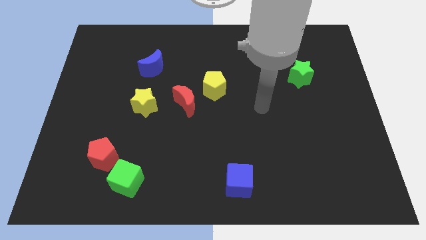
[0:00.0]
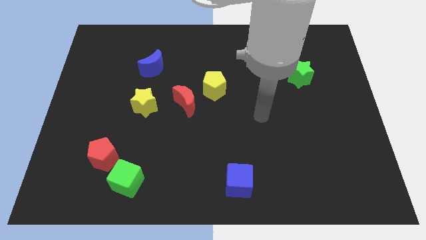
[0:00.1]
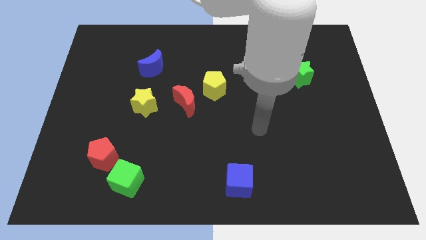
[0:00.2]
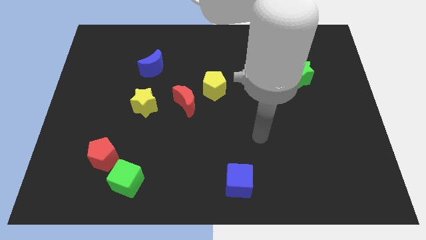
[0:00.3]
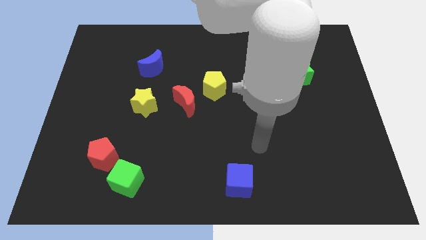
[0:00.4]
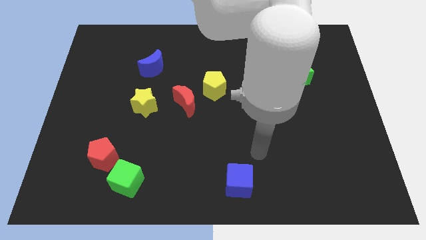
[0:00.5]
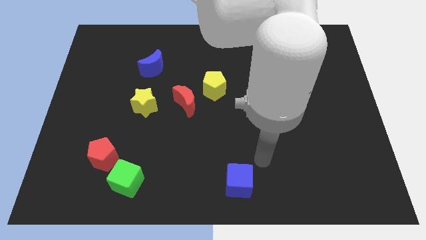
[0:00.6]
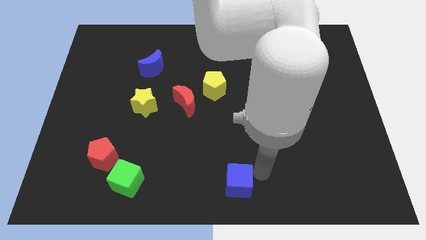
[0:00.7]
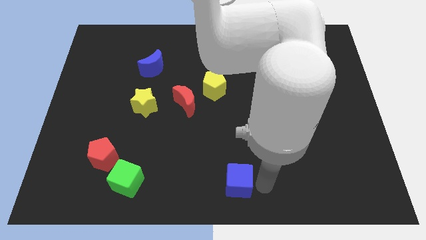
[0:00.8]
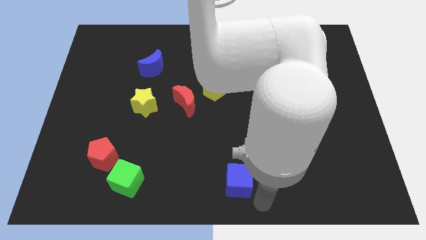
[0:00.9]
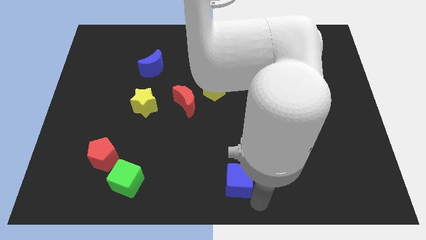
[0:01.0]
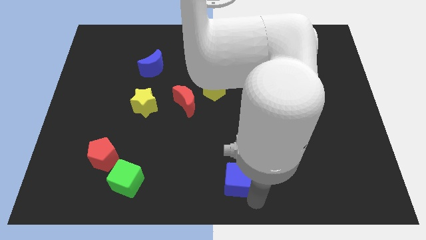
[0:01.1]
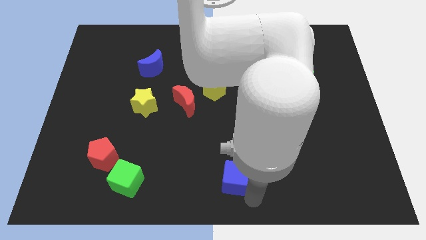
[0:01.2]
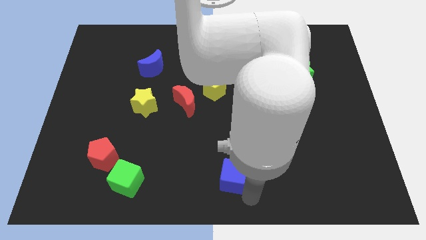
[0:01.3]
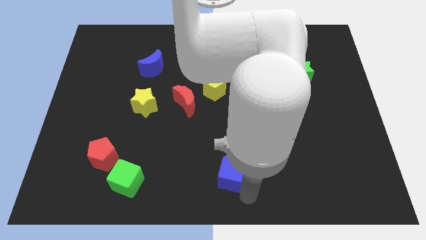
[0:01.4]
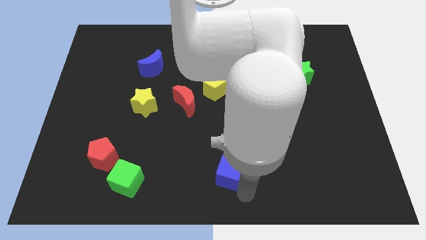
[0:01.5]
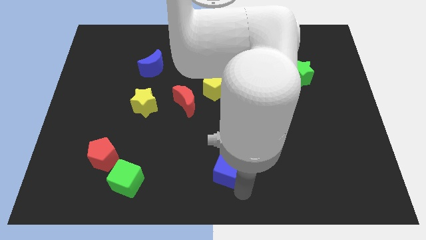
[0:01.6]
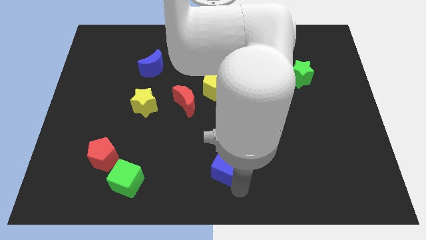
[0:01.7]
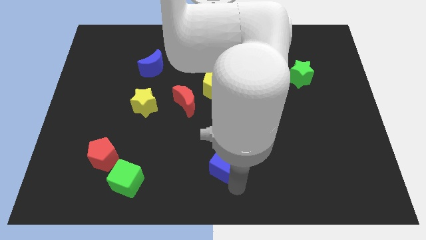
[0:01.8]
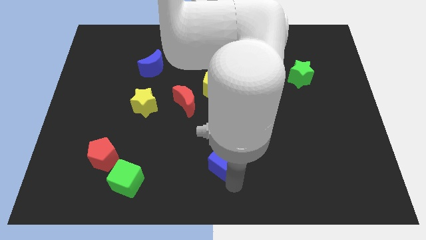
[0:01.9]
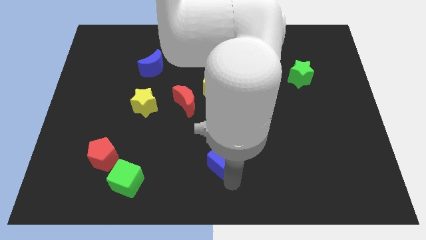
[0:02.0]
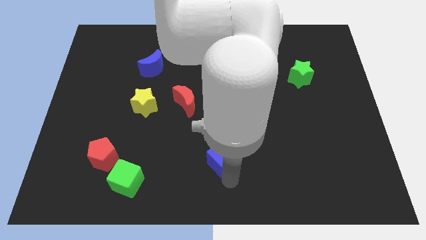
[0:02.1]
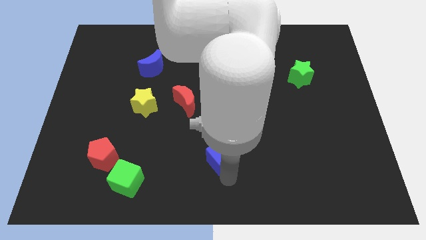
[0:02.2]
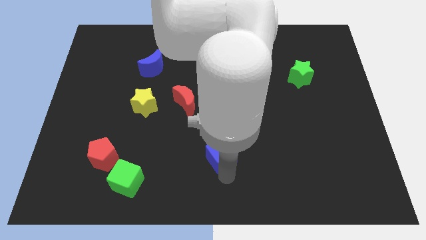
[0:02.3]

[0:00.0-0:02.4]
slightly move the blue cube upwards and to the left diagonally

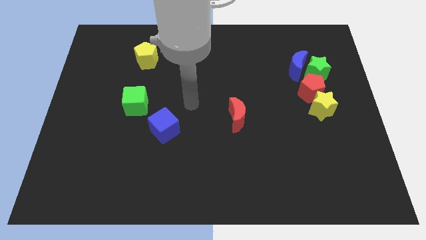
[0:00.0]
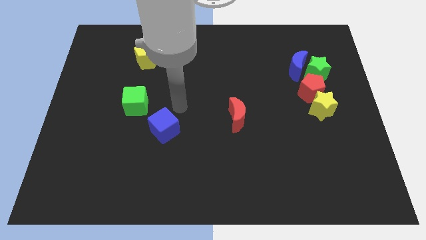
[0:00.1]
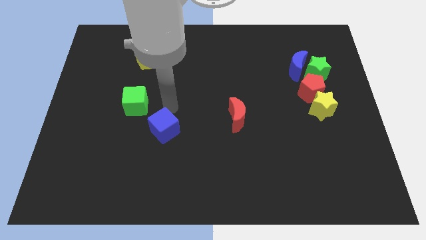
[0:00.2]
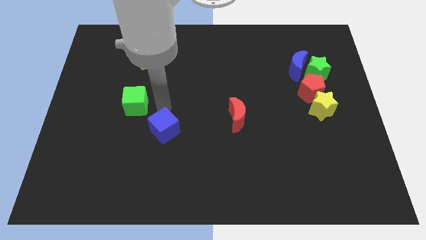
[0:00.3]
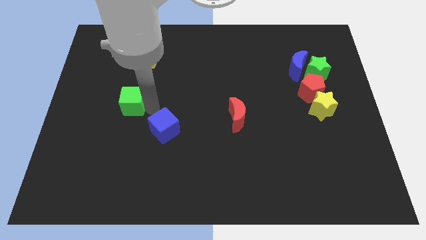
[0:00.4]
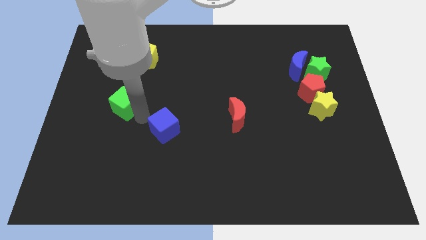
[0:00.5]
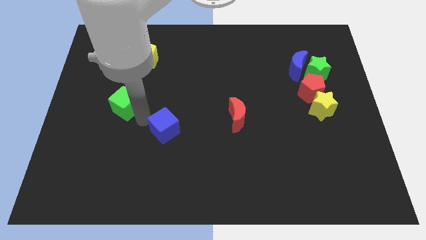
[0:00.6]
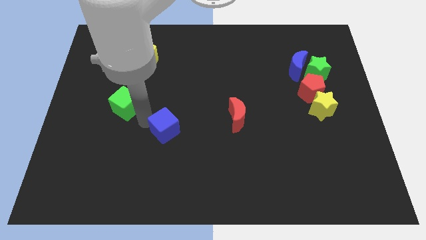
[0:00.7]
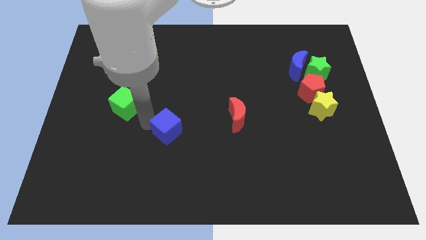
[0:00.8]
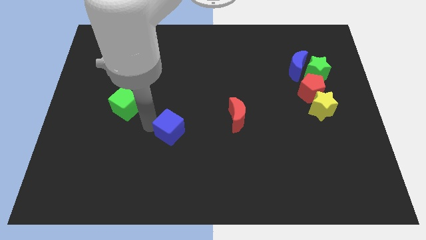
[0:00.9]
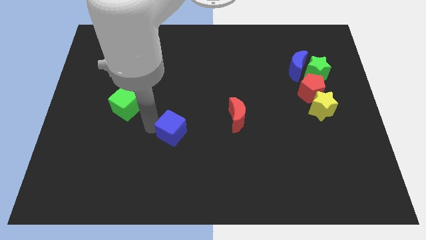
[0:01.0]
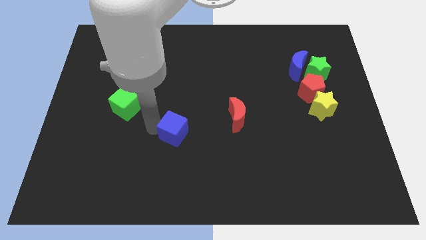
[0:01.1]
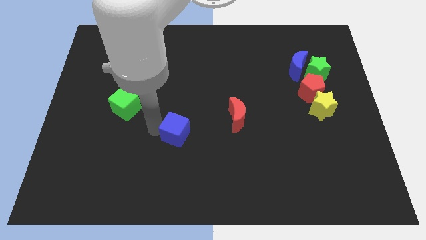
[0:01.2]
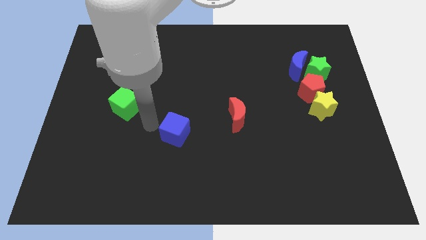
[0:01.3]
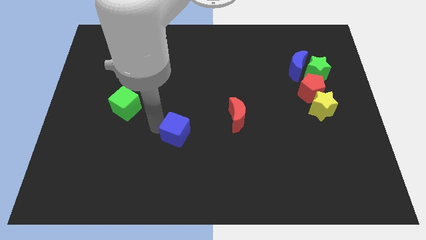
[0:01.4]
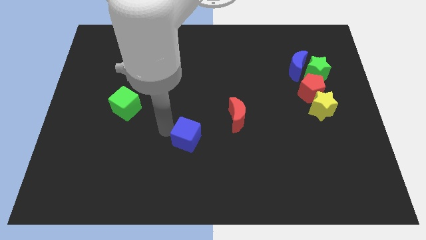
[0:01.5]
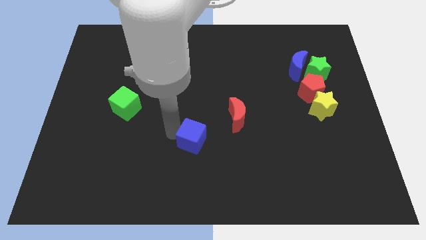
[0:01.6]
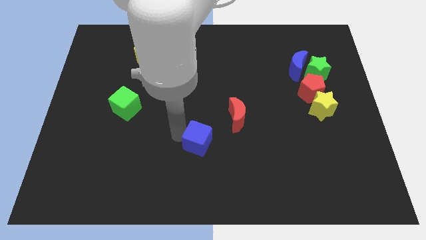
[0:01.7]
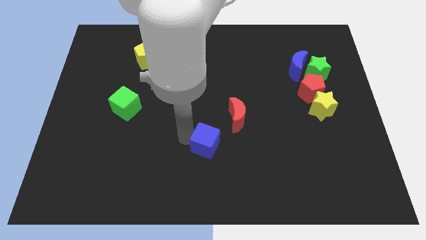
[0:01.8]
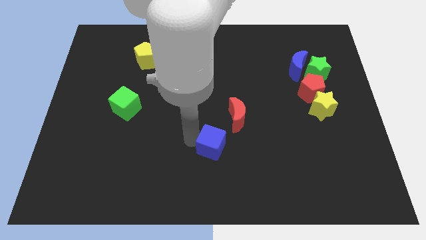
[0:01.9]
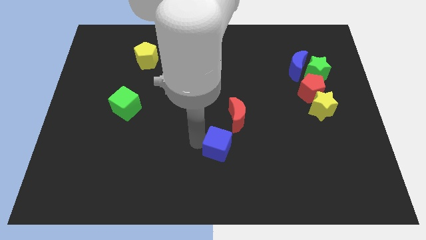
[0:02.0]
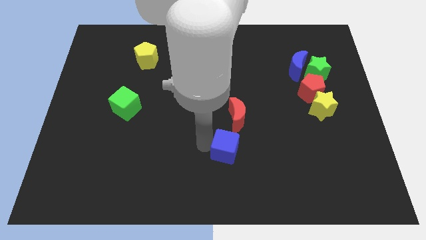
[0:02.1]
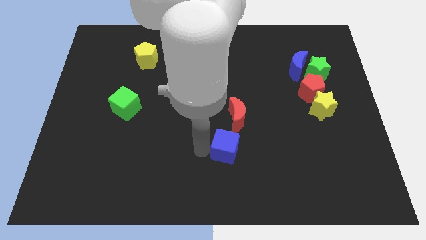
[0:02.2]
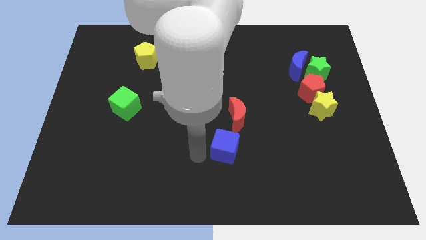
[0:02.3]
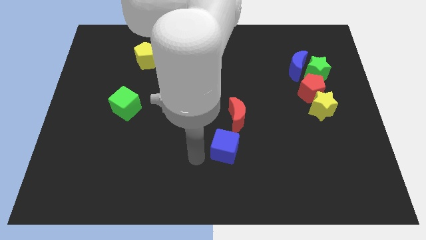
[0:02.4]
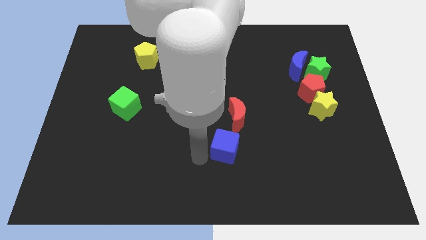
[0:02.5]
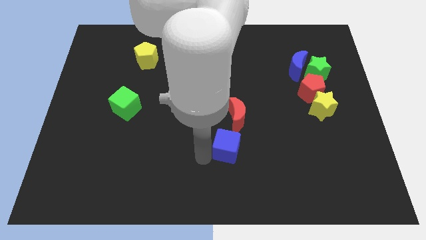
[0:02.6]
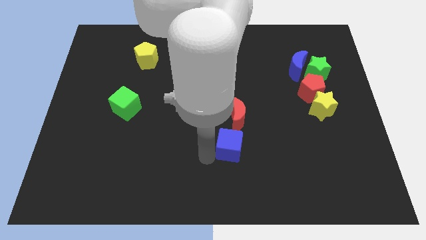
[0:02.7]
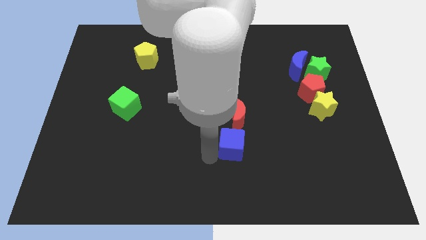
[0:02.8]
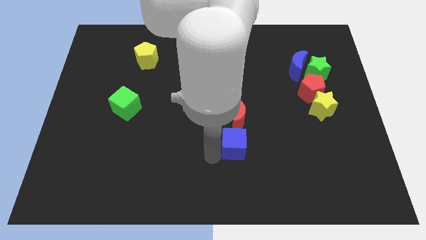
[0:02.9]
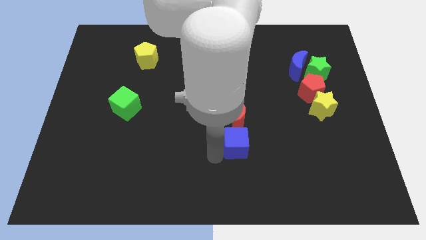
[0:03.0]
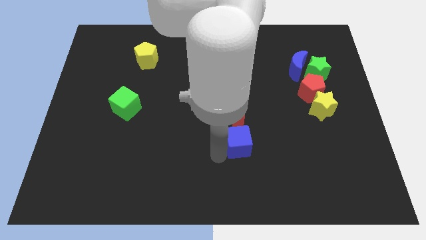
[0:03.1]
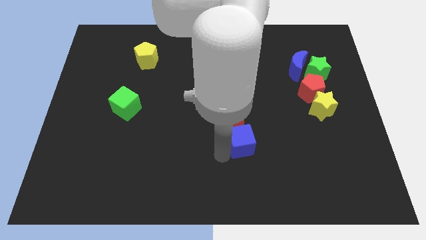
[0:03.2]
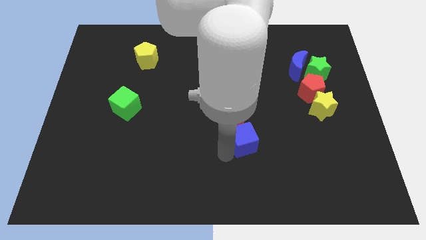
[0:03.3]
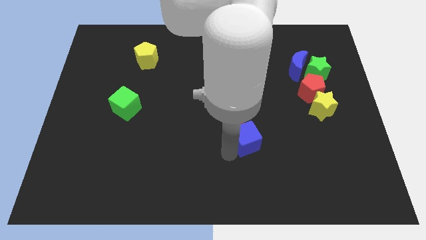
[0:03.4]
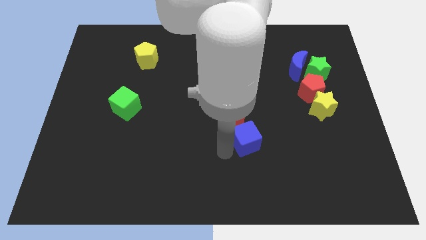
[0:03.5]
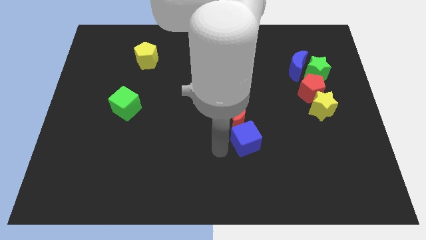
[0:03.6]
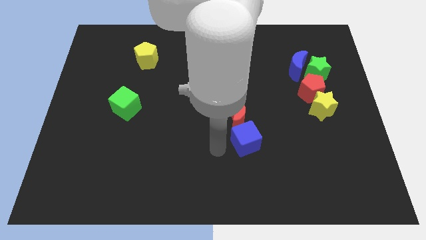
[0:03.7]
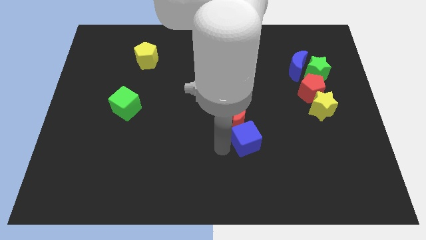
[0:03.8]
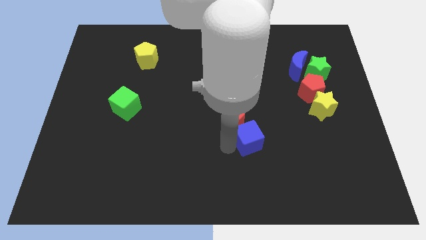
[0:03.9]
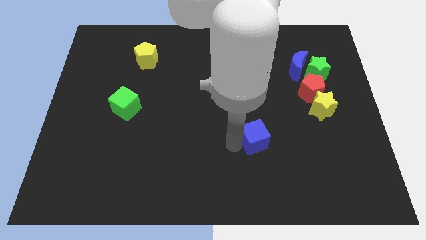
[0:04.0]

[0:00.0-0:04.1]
move the blue cube right

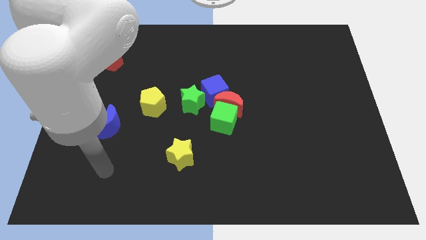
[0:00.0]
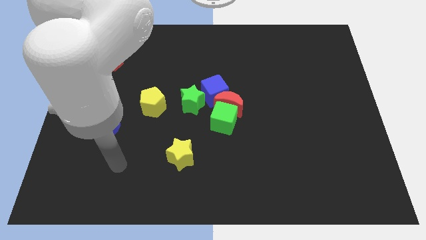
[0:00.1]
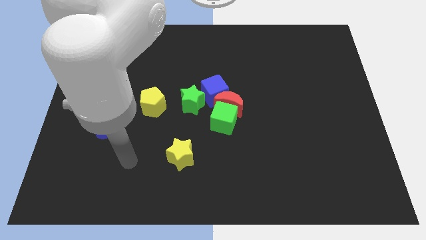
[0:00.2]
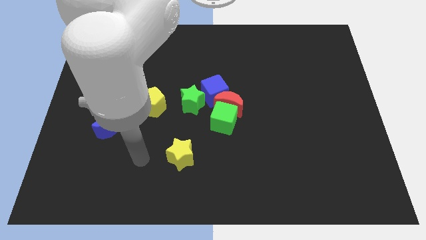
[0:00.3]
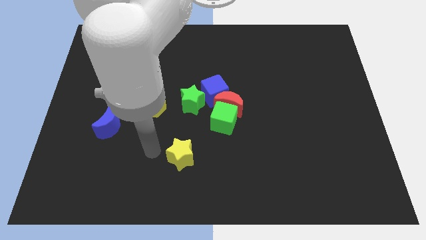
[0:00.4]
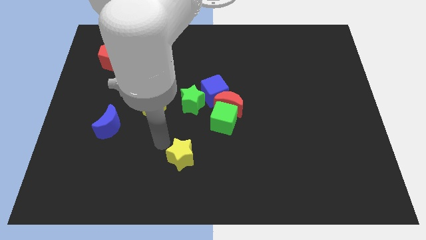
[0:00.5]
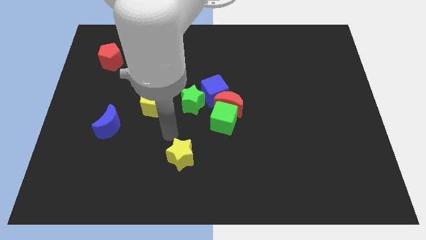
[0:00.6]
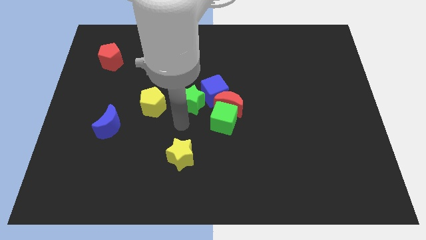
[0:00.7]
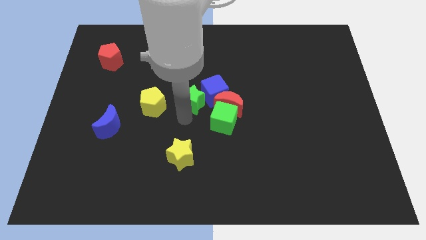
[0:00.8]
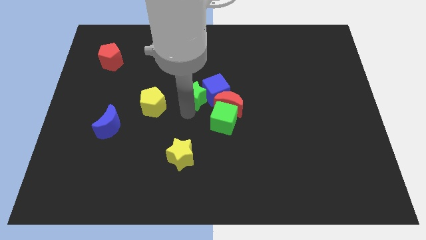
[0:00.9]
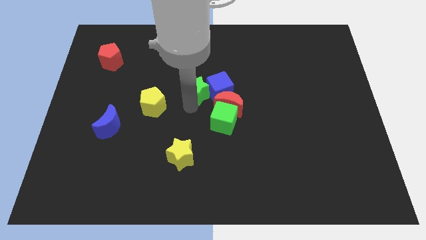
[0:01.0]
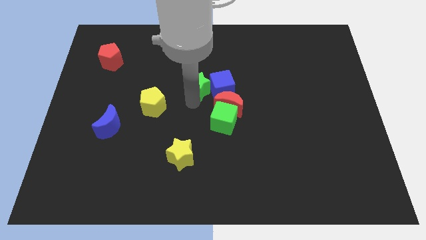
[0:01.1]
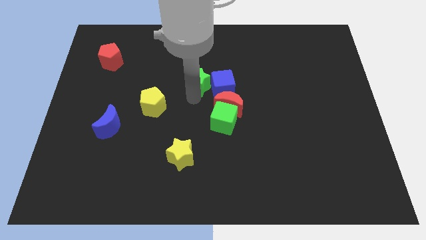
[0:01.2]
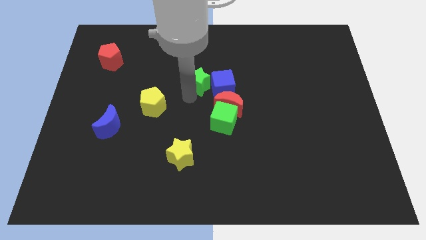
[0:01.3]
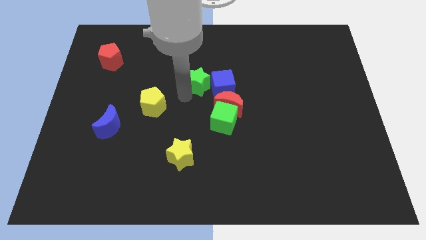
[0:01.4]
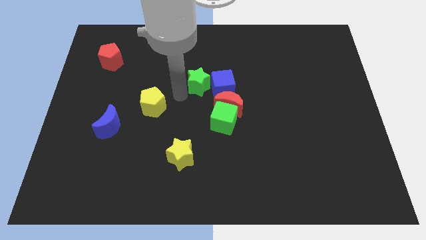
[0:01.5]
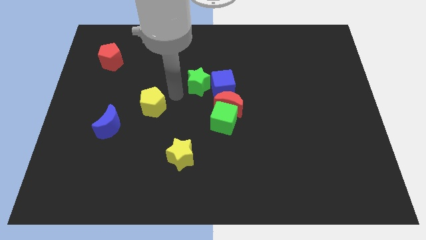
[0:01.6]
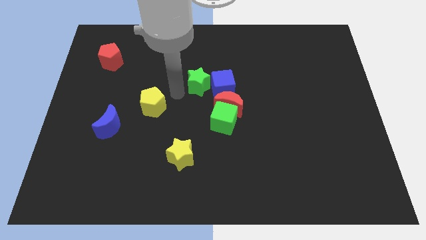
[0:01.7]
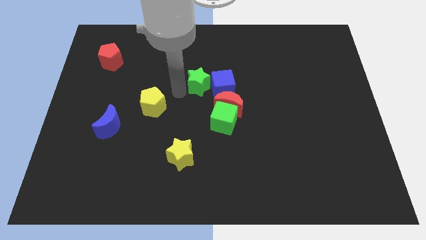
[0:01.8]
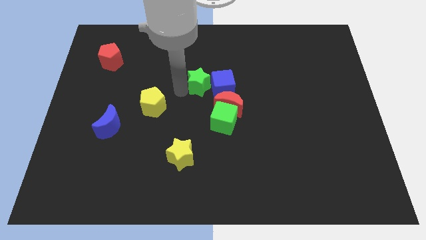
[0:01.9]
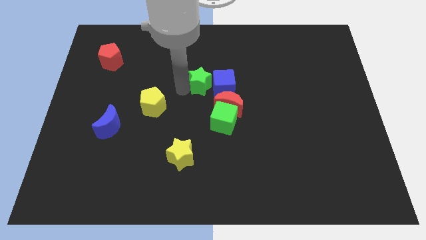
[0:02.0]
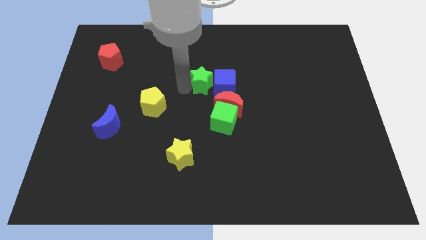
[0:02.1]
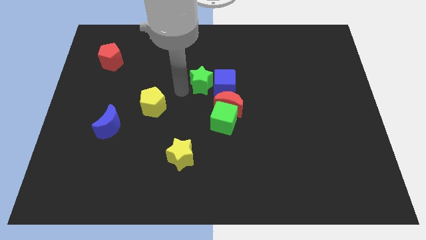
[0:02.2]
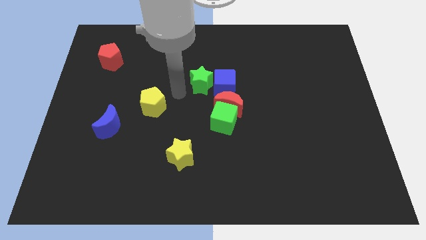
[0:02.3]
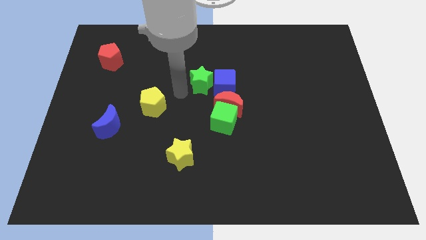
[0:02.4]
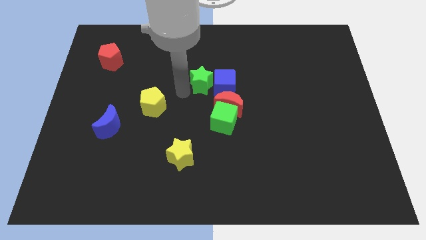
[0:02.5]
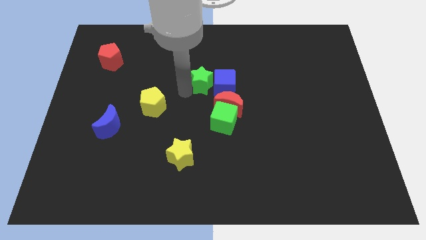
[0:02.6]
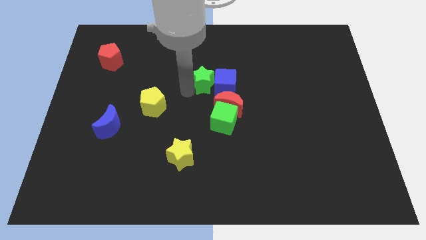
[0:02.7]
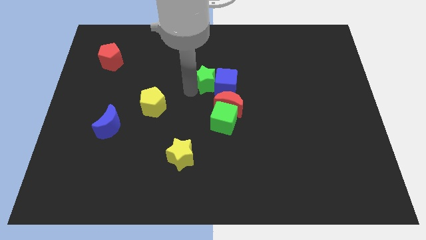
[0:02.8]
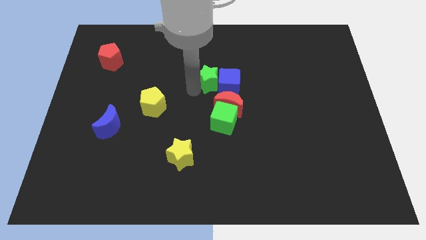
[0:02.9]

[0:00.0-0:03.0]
slightly push the green star diagonally upwards and to the right
